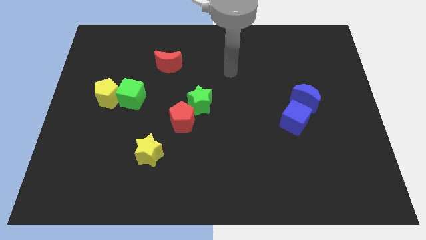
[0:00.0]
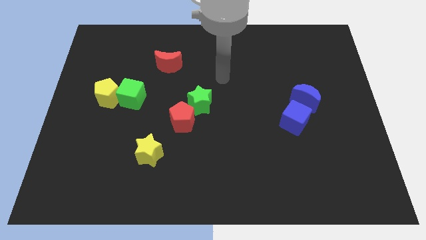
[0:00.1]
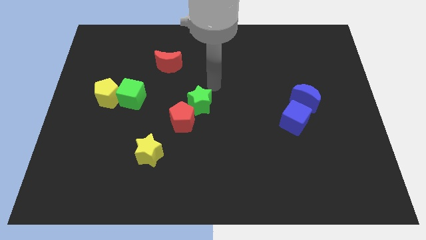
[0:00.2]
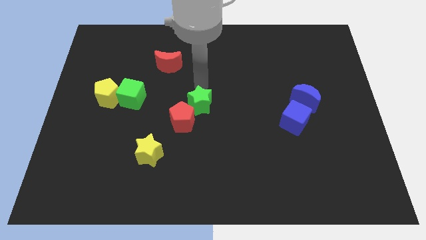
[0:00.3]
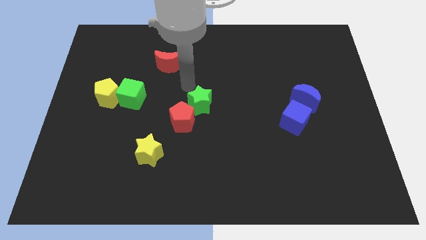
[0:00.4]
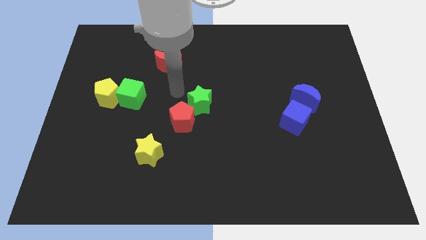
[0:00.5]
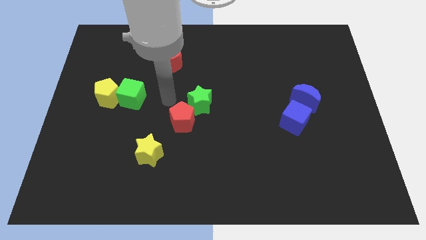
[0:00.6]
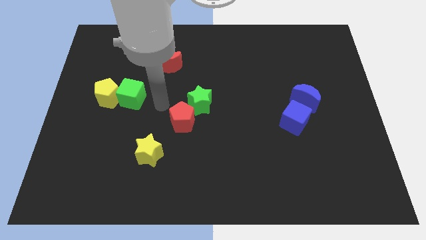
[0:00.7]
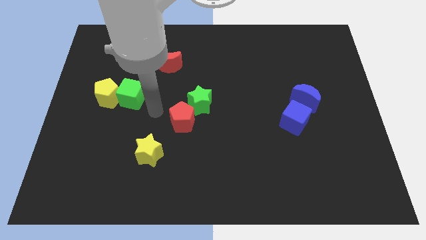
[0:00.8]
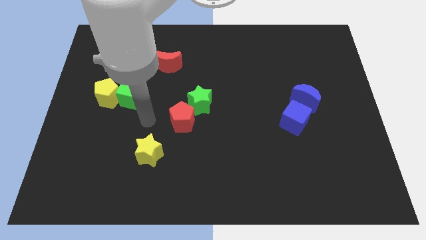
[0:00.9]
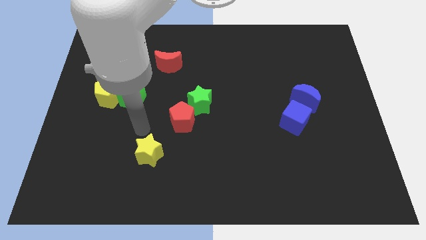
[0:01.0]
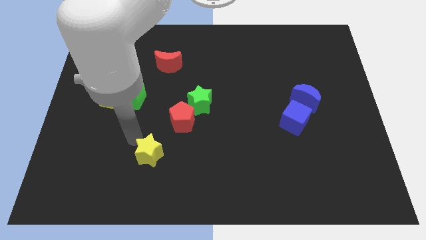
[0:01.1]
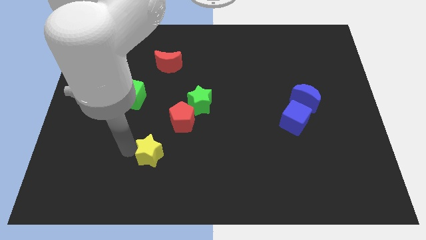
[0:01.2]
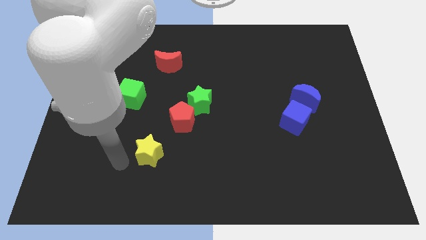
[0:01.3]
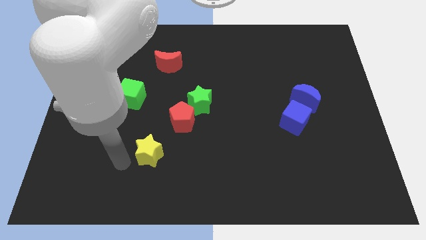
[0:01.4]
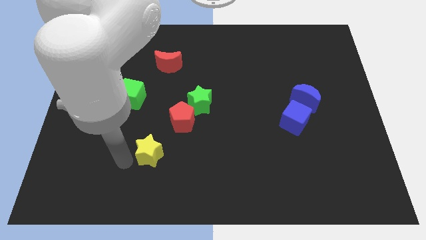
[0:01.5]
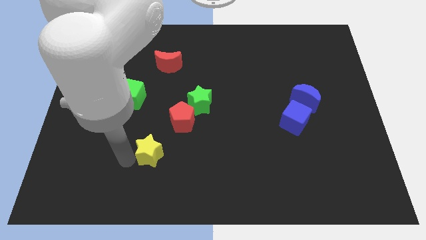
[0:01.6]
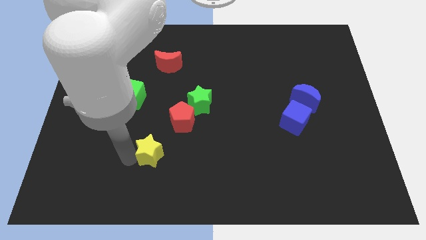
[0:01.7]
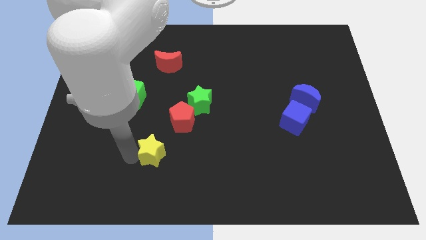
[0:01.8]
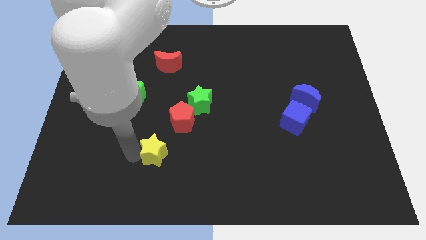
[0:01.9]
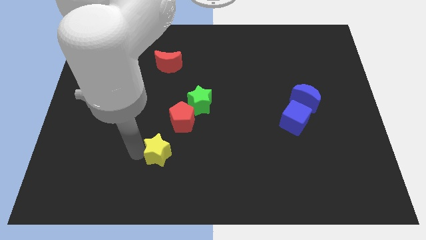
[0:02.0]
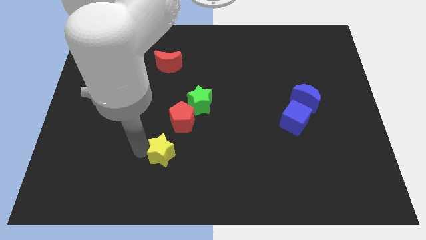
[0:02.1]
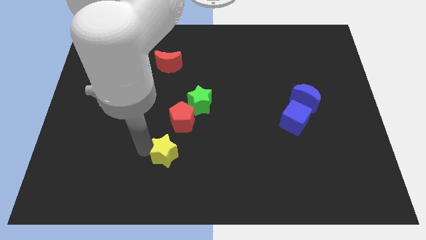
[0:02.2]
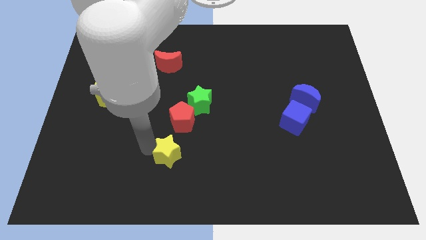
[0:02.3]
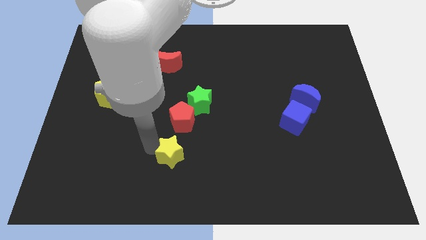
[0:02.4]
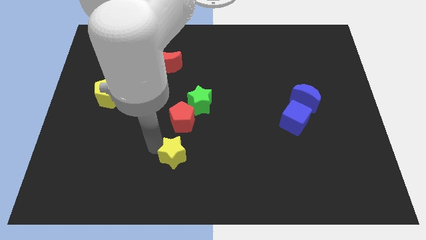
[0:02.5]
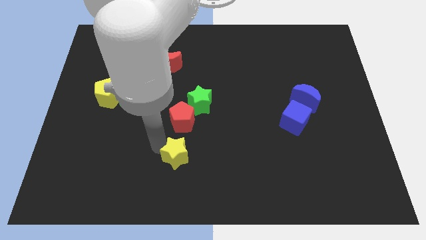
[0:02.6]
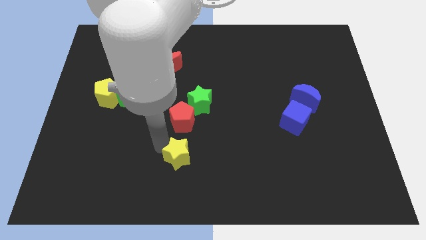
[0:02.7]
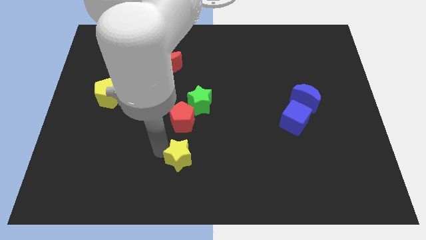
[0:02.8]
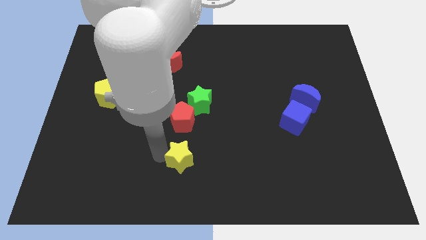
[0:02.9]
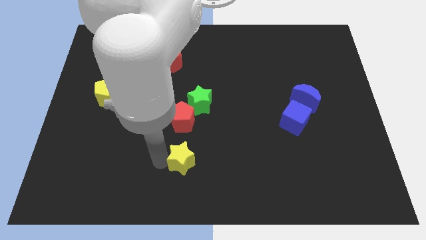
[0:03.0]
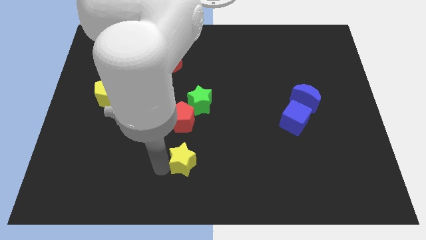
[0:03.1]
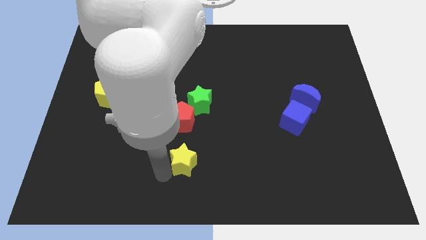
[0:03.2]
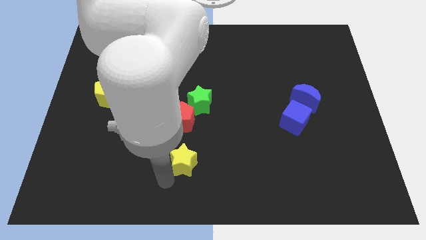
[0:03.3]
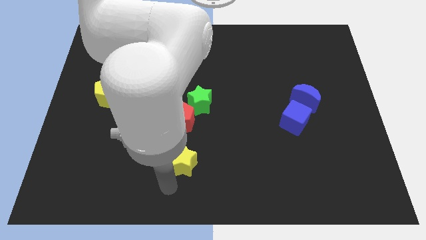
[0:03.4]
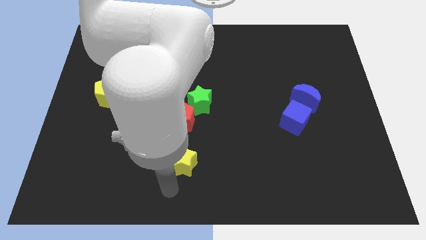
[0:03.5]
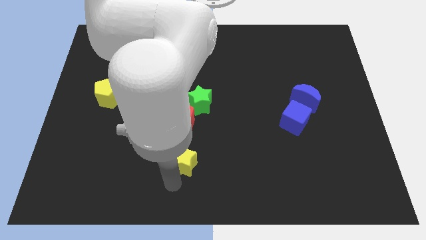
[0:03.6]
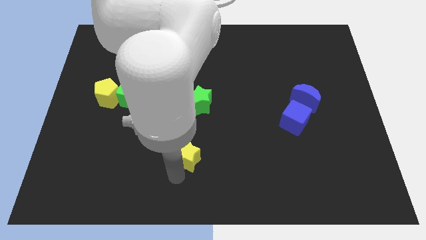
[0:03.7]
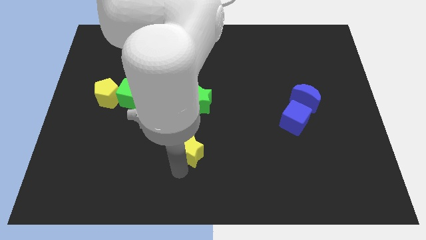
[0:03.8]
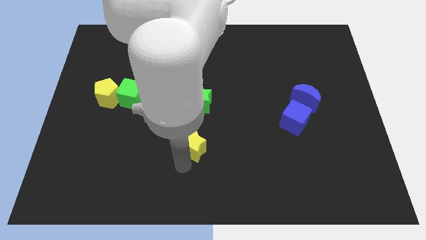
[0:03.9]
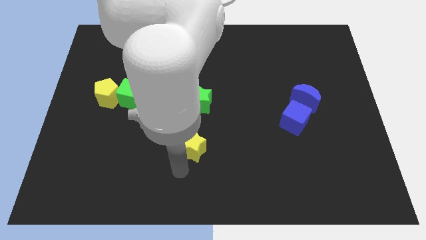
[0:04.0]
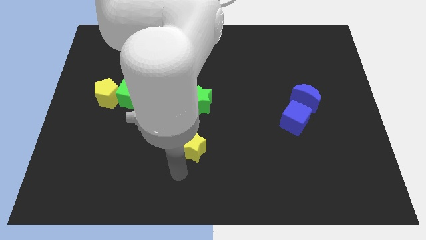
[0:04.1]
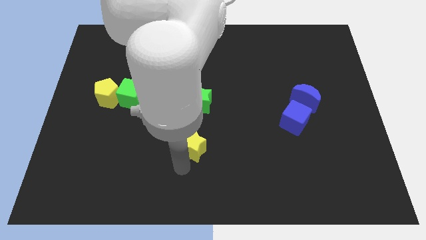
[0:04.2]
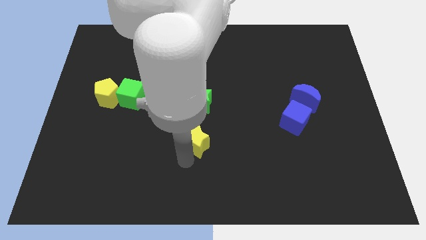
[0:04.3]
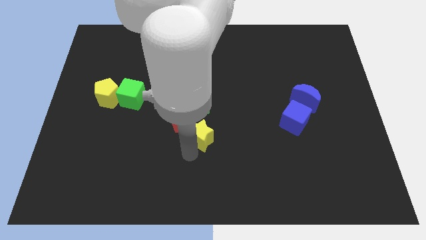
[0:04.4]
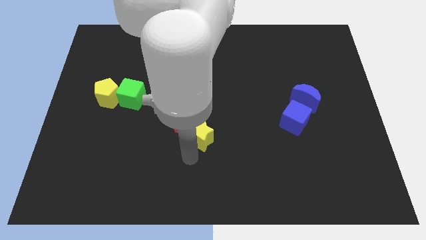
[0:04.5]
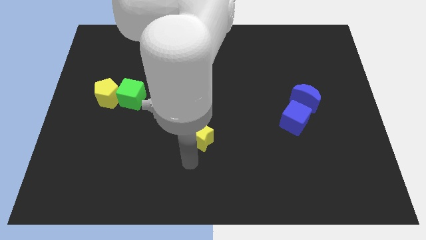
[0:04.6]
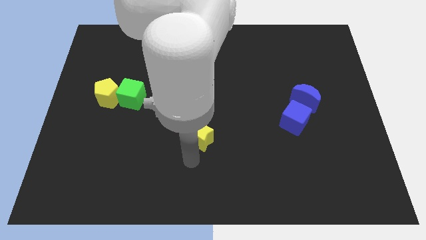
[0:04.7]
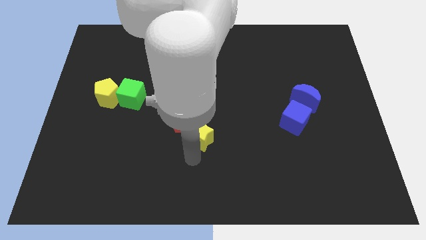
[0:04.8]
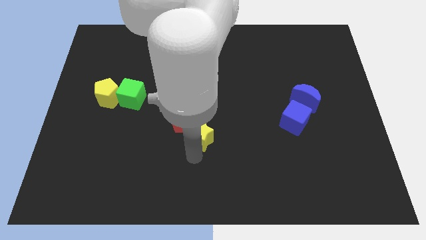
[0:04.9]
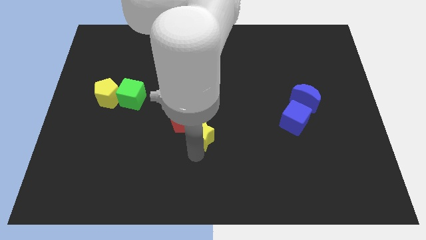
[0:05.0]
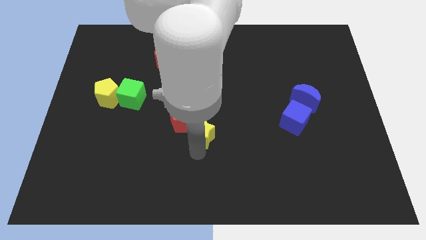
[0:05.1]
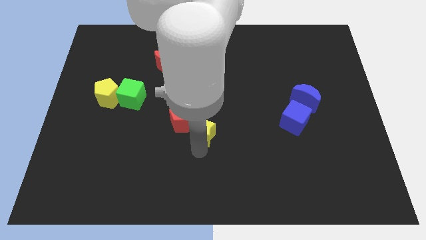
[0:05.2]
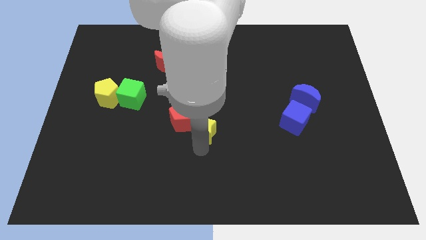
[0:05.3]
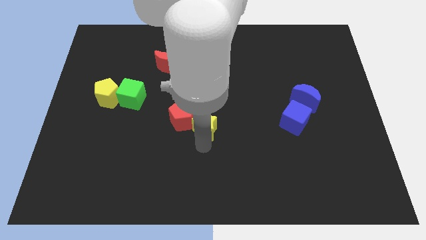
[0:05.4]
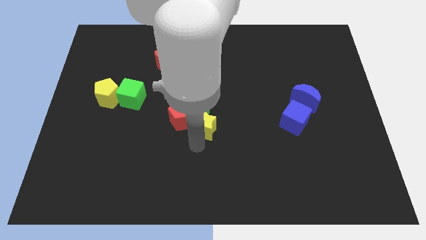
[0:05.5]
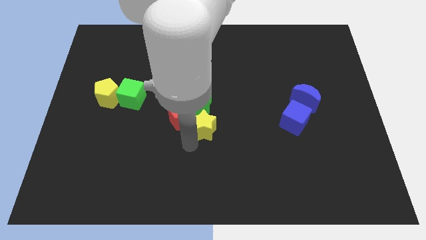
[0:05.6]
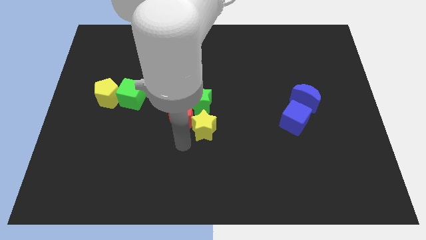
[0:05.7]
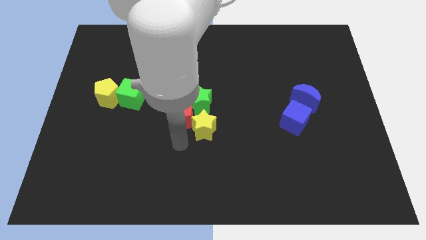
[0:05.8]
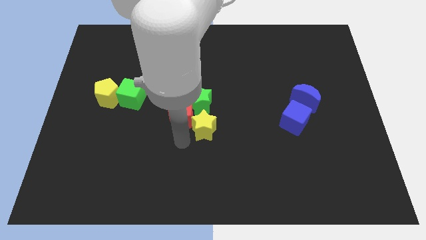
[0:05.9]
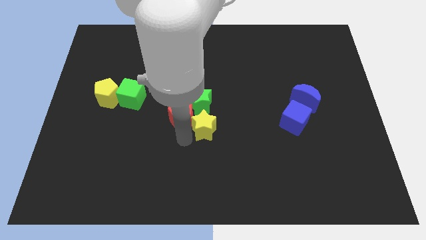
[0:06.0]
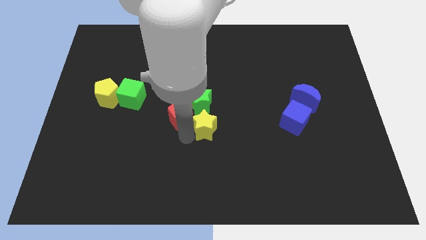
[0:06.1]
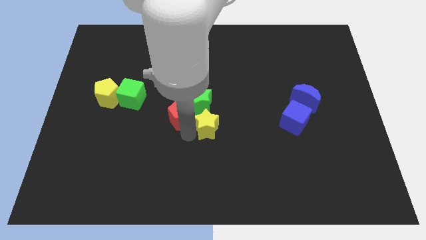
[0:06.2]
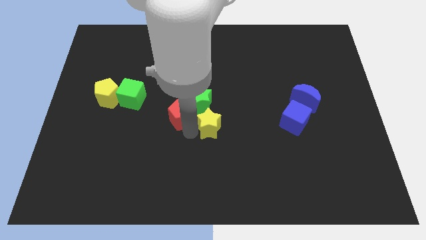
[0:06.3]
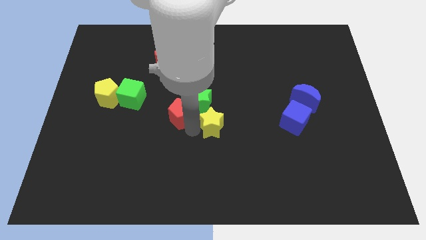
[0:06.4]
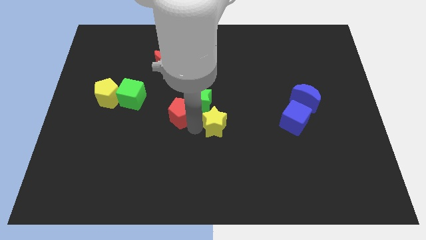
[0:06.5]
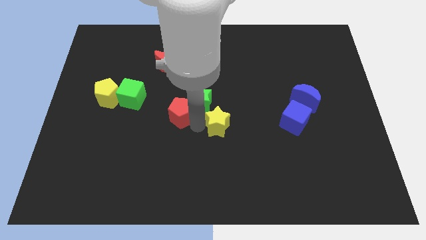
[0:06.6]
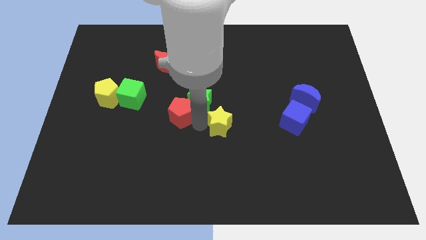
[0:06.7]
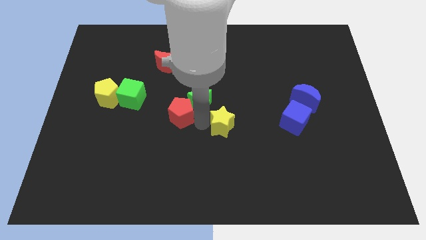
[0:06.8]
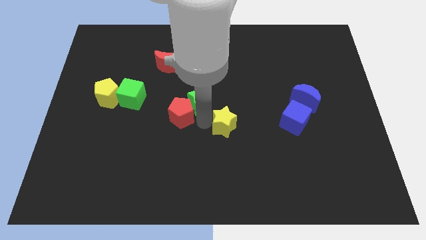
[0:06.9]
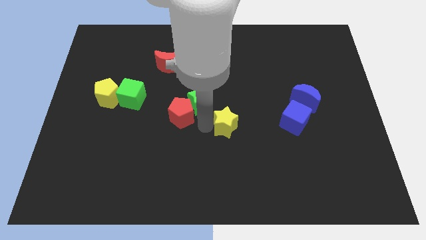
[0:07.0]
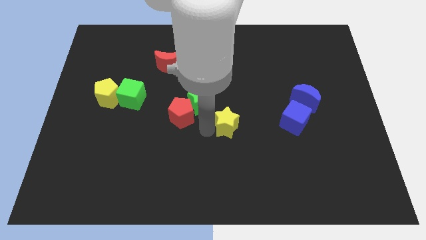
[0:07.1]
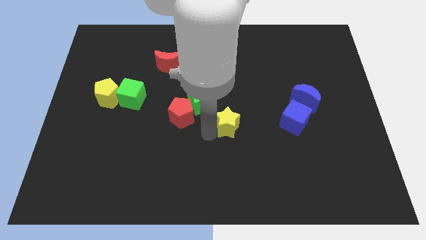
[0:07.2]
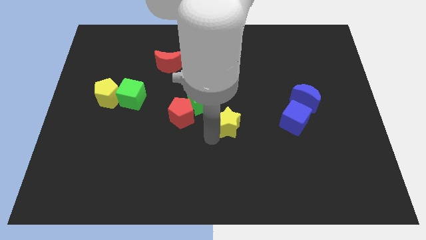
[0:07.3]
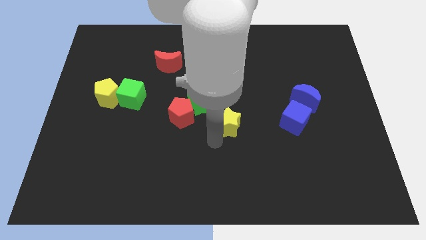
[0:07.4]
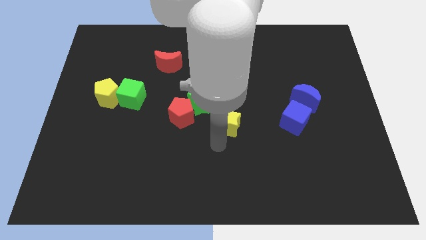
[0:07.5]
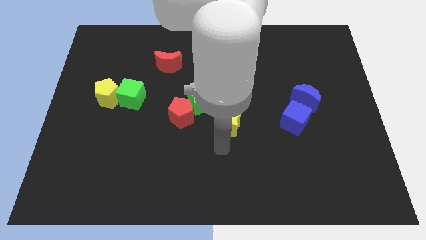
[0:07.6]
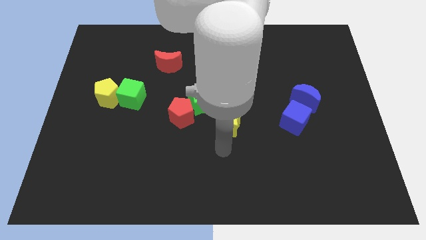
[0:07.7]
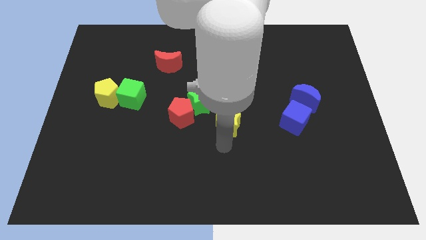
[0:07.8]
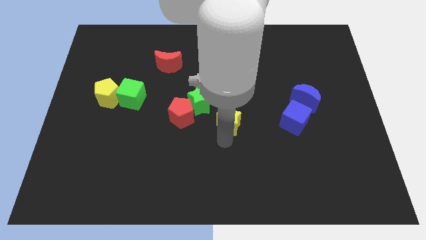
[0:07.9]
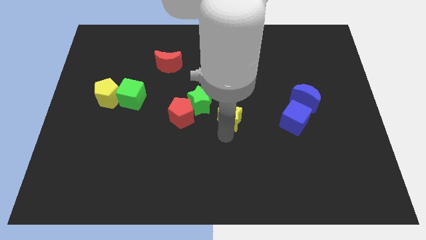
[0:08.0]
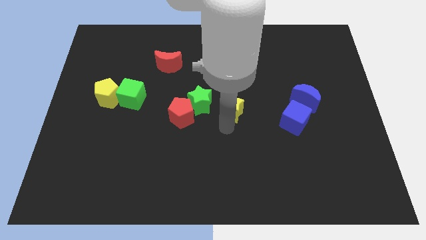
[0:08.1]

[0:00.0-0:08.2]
slide the yellow star diagonally up and to the right

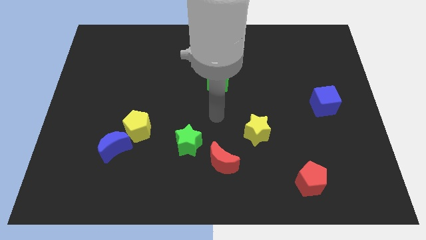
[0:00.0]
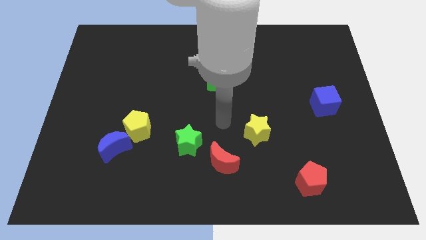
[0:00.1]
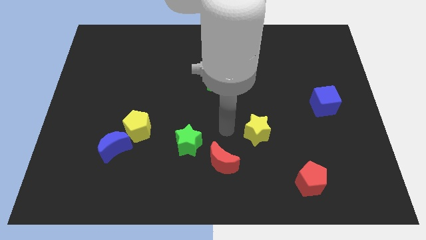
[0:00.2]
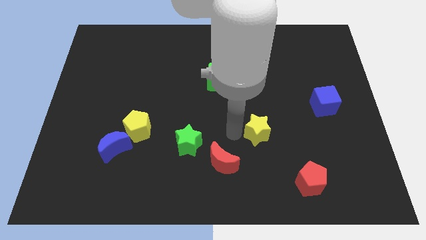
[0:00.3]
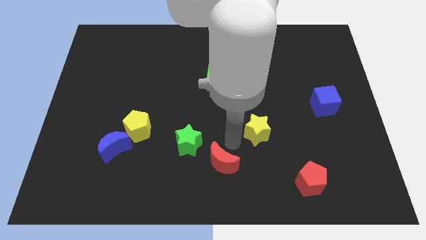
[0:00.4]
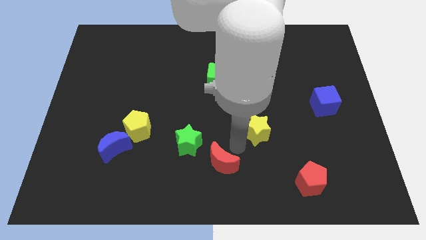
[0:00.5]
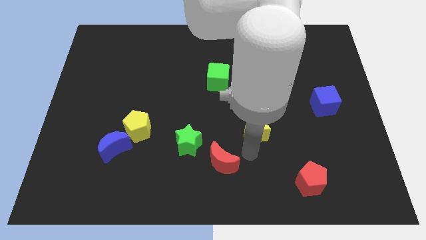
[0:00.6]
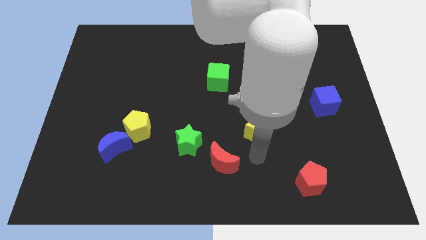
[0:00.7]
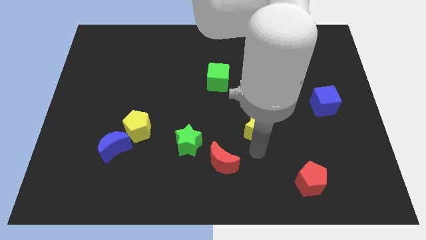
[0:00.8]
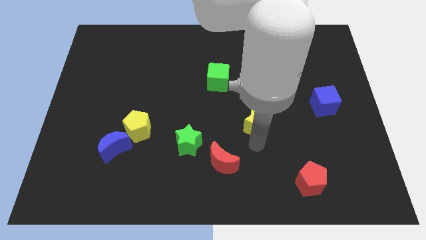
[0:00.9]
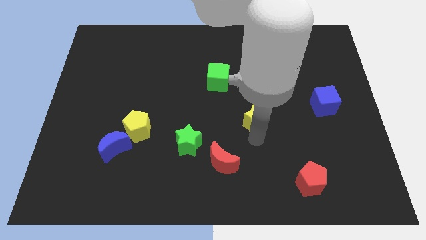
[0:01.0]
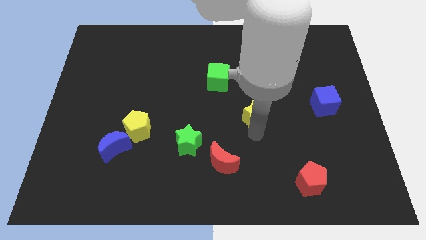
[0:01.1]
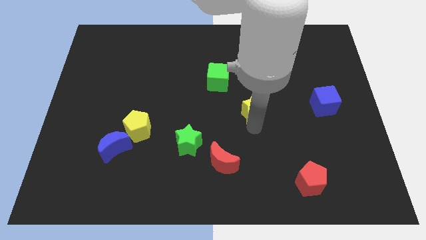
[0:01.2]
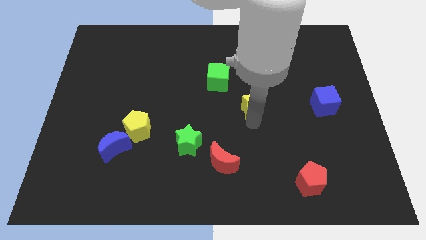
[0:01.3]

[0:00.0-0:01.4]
slightly slide the yellow star up
